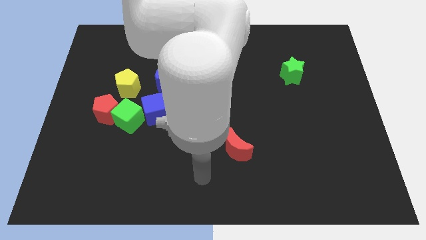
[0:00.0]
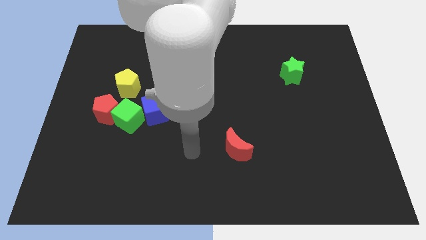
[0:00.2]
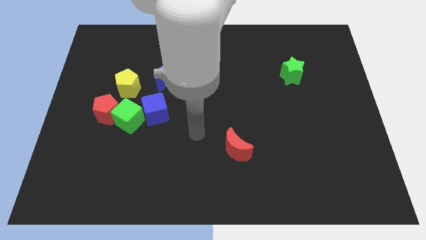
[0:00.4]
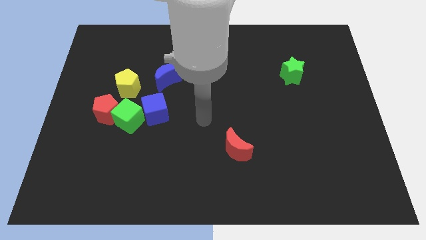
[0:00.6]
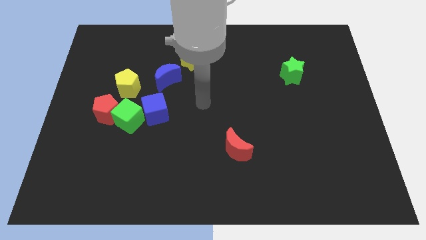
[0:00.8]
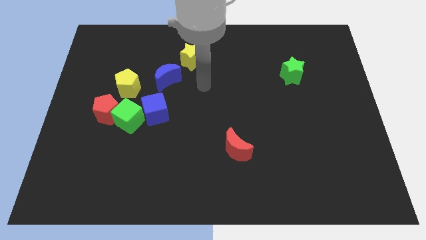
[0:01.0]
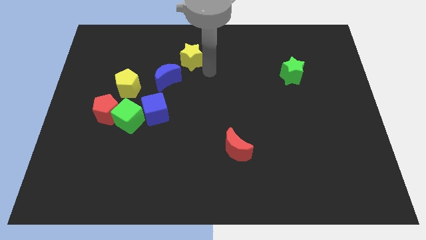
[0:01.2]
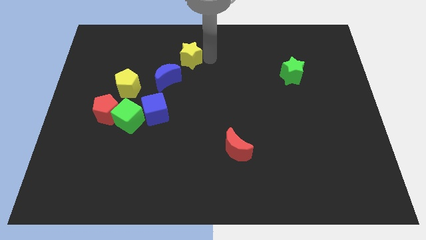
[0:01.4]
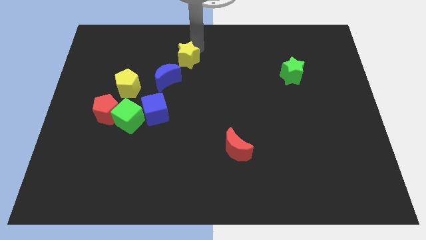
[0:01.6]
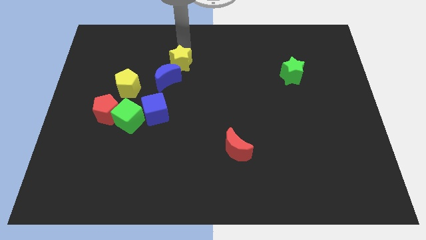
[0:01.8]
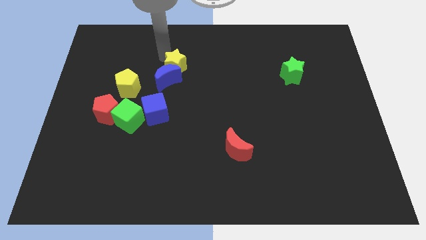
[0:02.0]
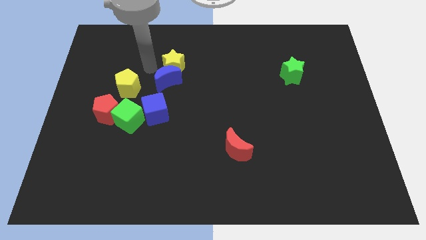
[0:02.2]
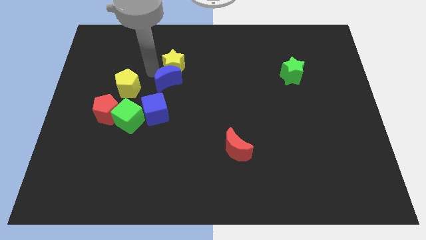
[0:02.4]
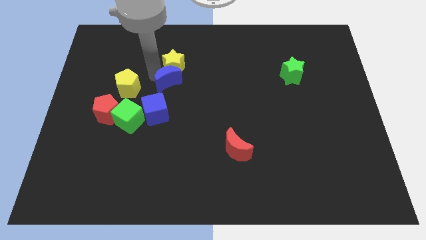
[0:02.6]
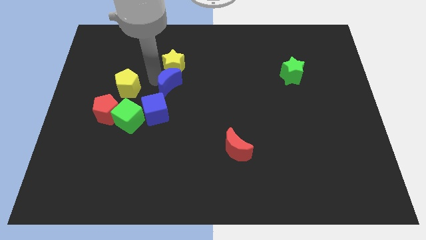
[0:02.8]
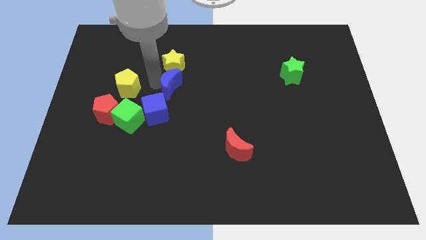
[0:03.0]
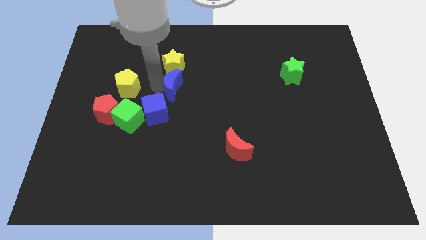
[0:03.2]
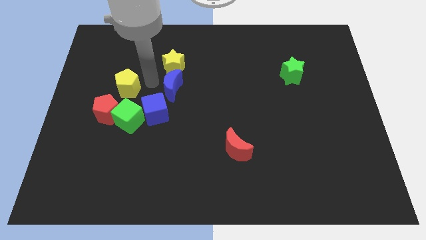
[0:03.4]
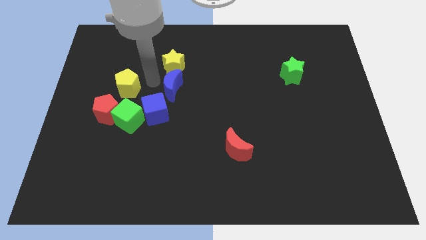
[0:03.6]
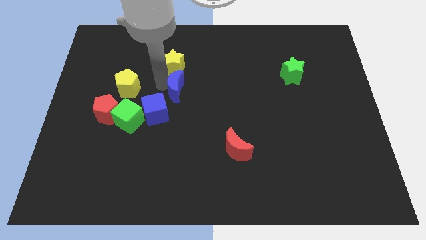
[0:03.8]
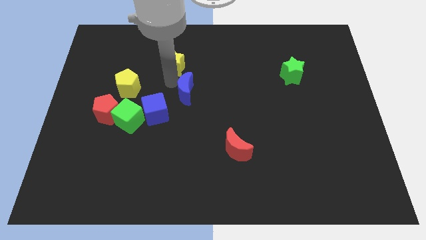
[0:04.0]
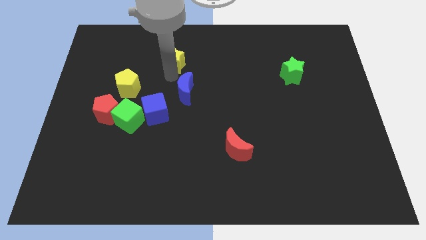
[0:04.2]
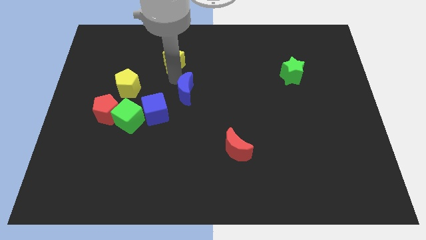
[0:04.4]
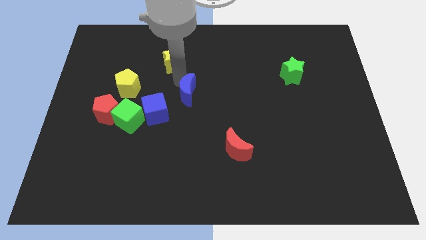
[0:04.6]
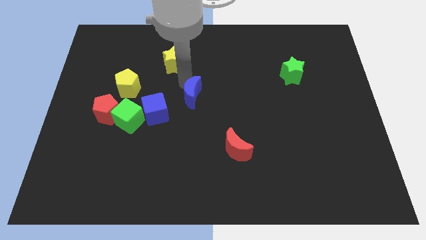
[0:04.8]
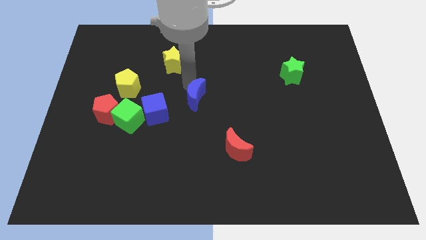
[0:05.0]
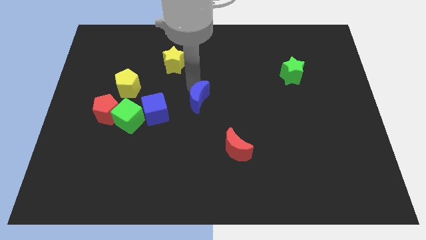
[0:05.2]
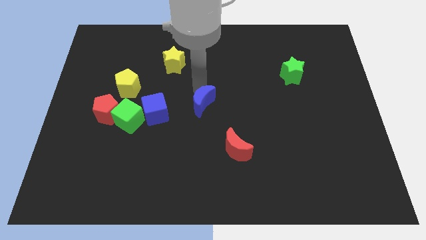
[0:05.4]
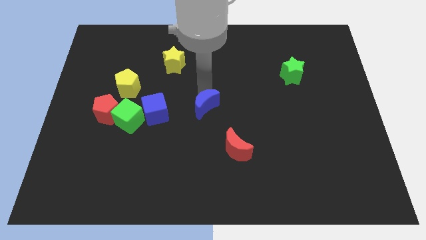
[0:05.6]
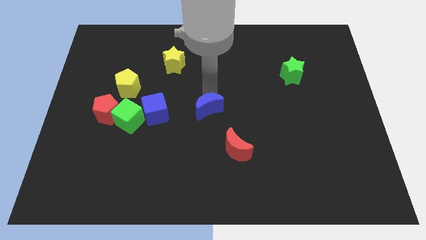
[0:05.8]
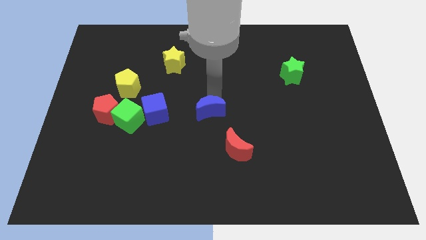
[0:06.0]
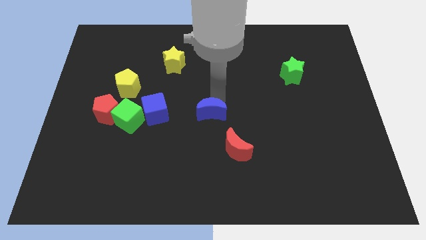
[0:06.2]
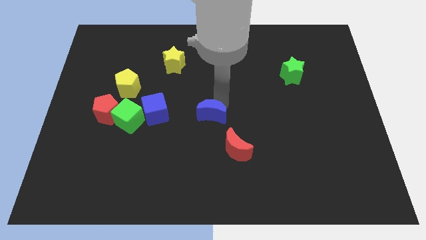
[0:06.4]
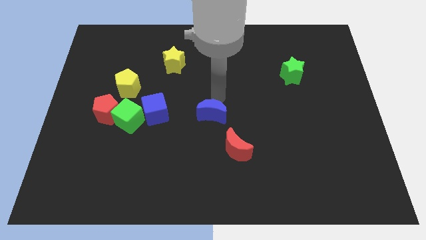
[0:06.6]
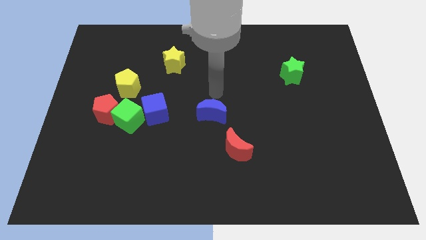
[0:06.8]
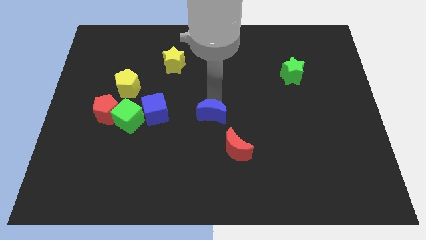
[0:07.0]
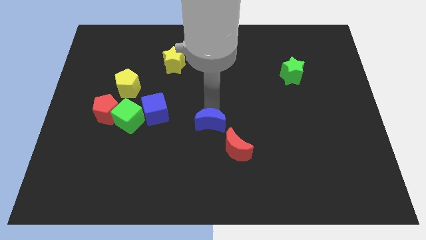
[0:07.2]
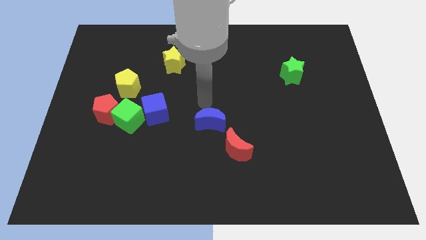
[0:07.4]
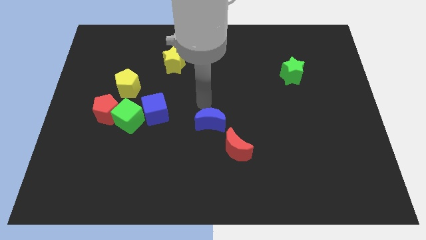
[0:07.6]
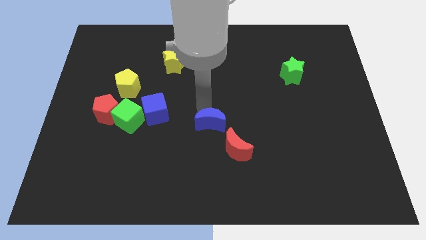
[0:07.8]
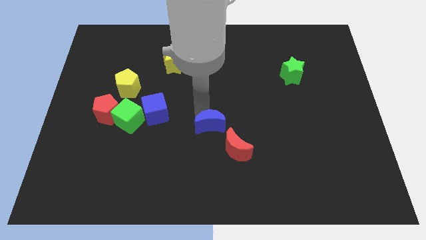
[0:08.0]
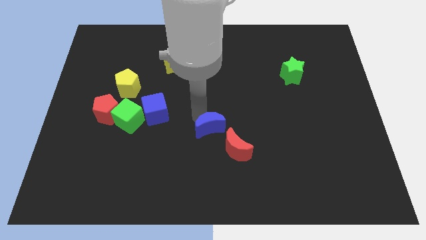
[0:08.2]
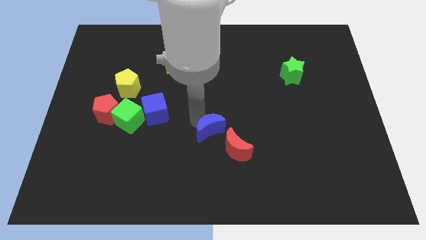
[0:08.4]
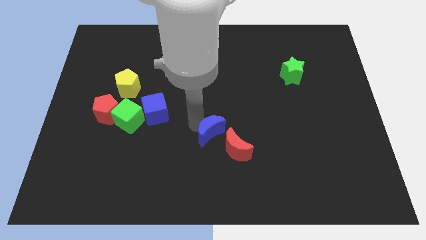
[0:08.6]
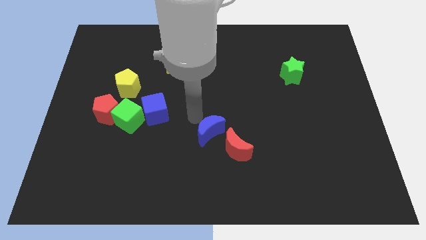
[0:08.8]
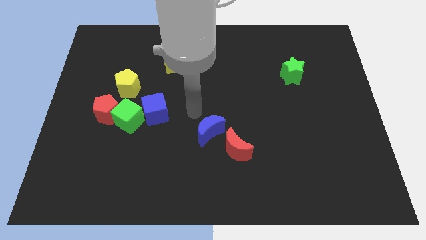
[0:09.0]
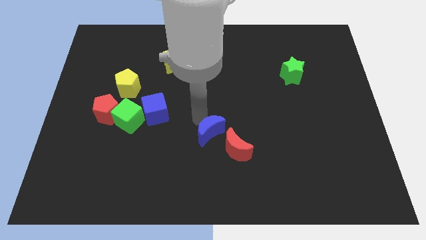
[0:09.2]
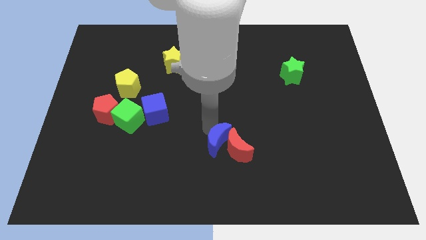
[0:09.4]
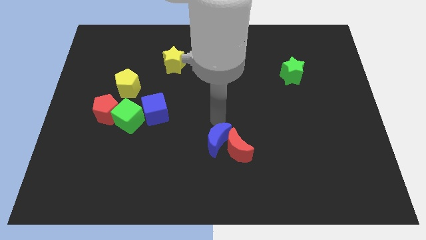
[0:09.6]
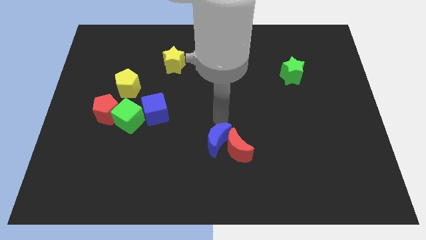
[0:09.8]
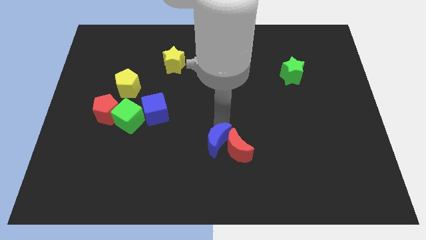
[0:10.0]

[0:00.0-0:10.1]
move the blue moon to the bottom left of the red moon

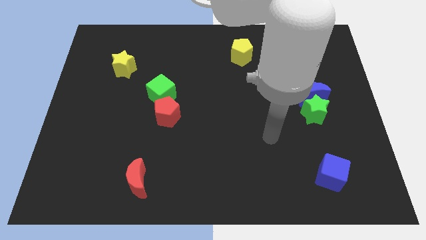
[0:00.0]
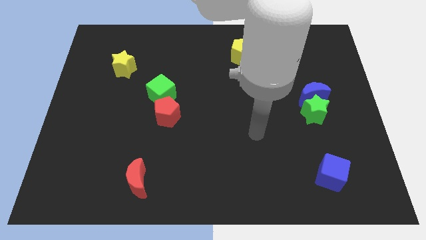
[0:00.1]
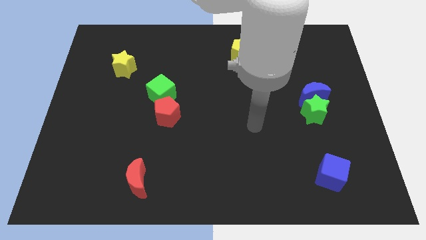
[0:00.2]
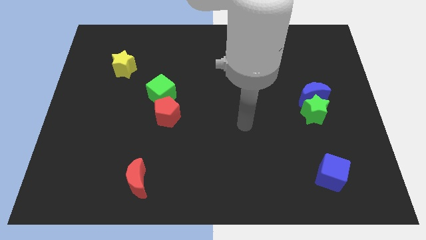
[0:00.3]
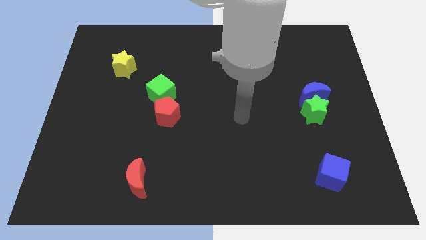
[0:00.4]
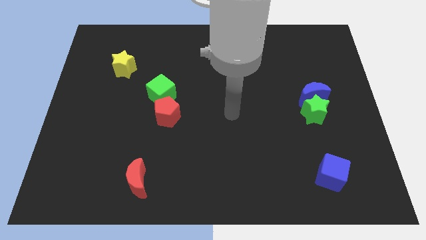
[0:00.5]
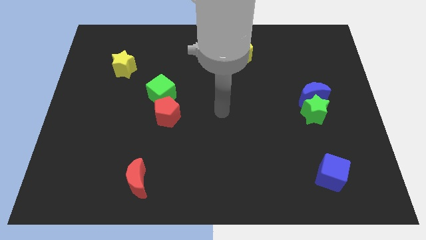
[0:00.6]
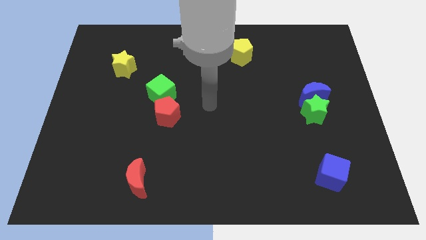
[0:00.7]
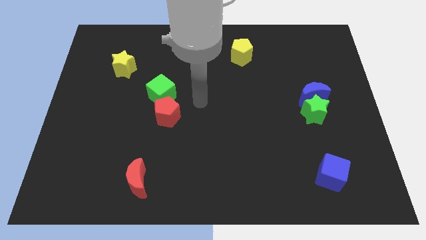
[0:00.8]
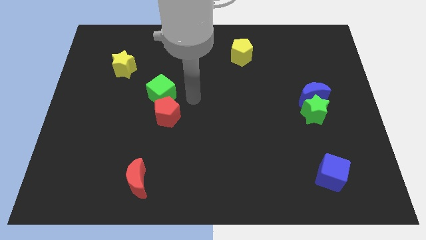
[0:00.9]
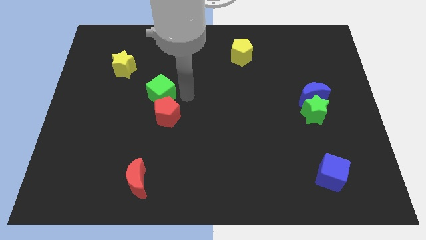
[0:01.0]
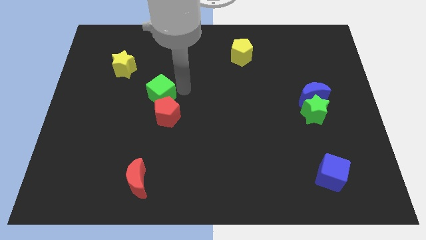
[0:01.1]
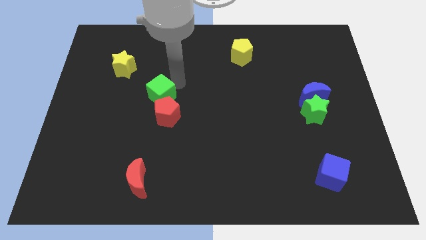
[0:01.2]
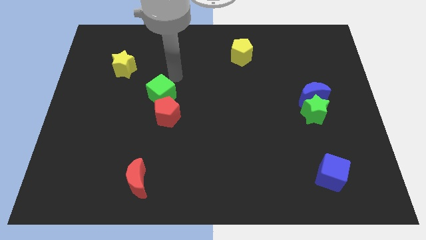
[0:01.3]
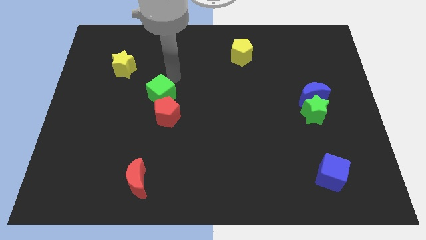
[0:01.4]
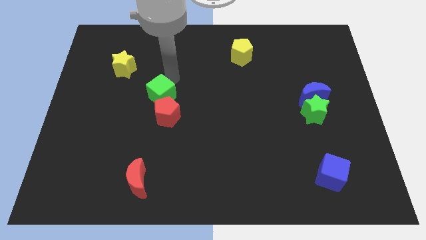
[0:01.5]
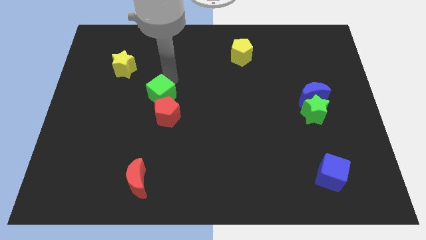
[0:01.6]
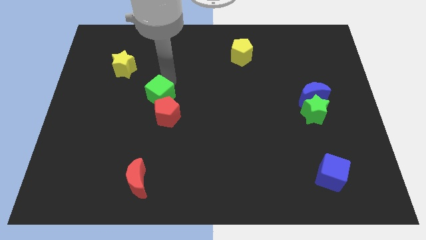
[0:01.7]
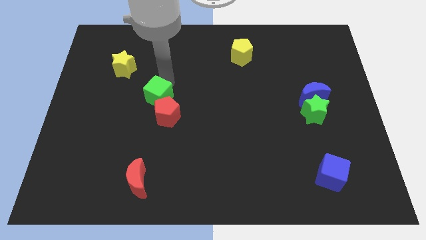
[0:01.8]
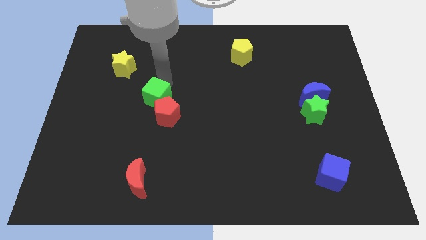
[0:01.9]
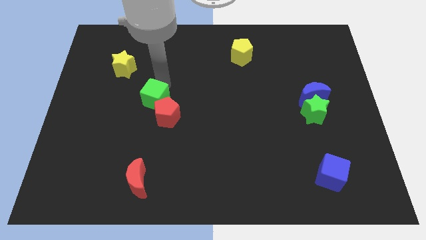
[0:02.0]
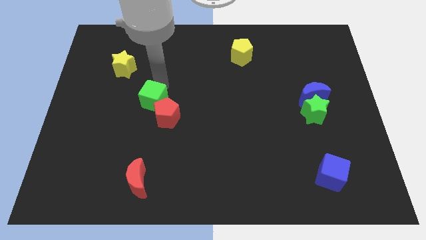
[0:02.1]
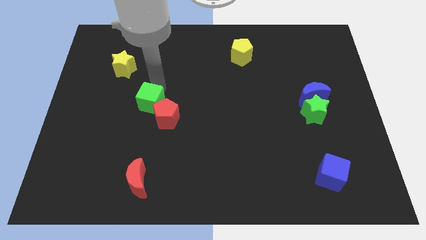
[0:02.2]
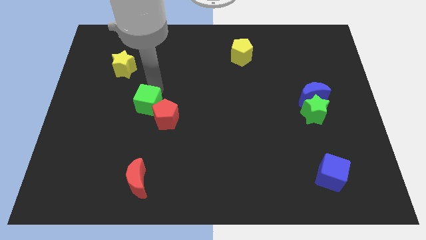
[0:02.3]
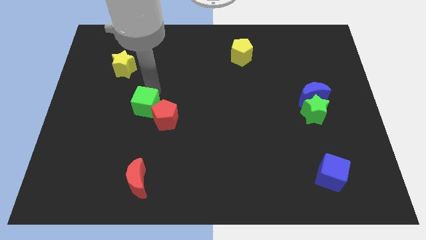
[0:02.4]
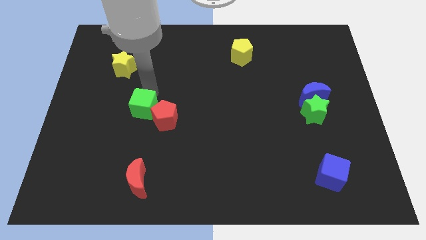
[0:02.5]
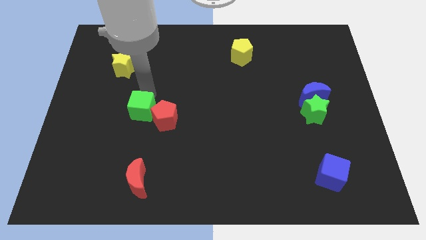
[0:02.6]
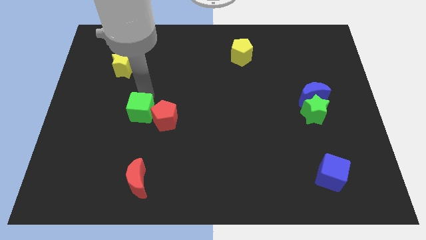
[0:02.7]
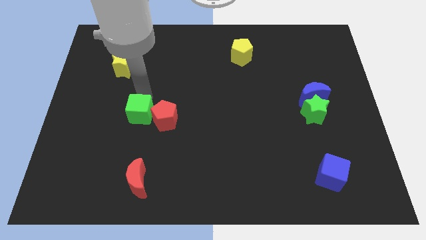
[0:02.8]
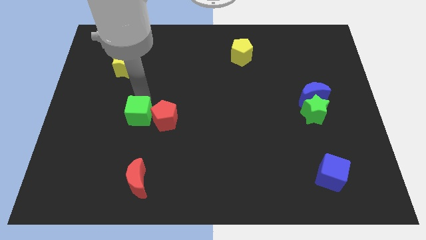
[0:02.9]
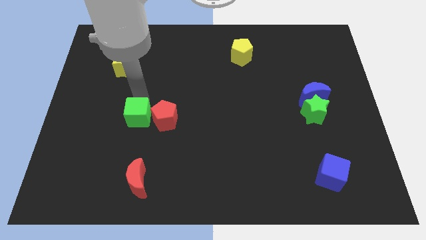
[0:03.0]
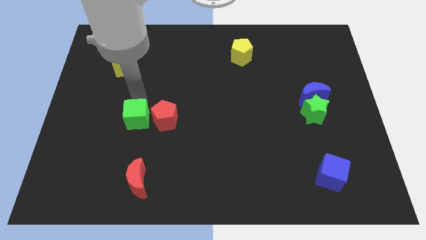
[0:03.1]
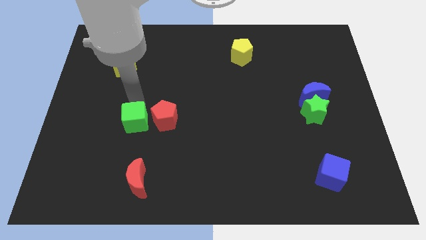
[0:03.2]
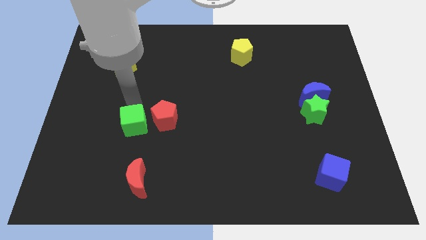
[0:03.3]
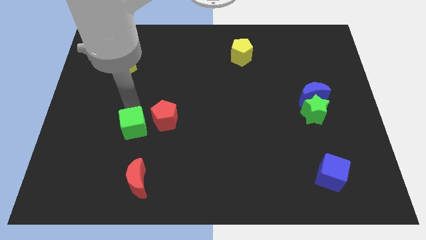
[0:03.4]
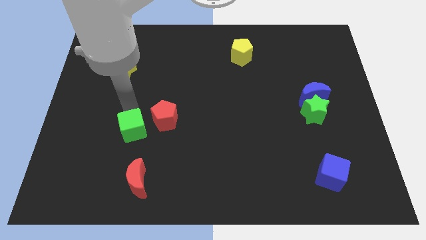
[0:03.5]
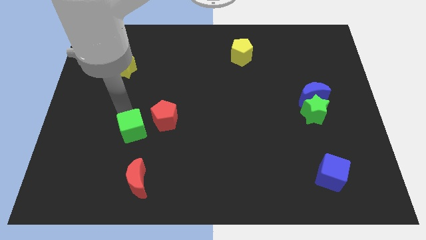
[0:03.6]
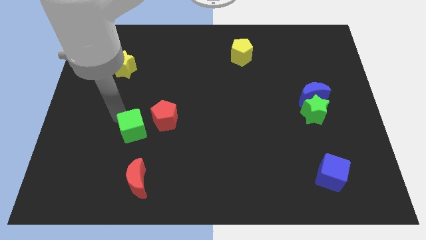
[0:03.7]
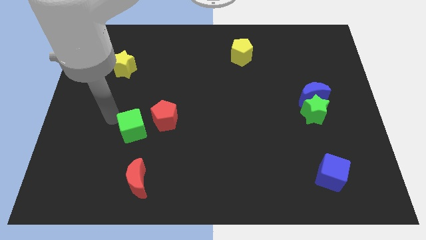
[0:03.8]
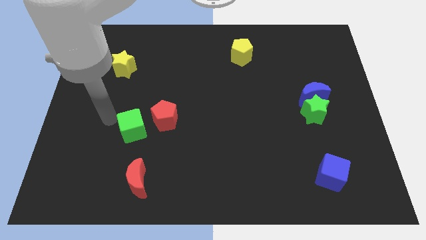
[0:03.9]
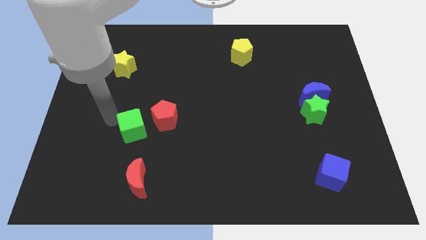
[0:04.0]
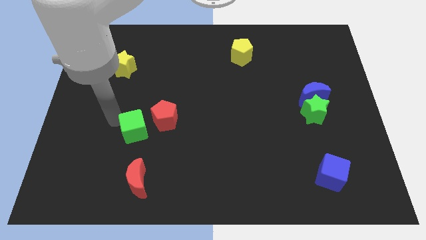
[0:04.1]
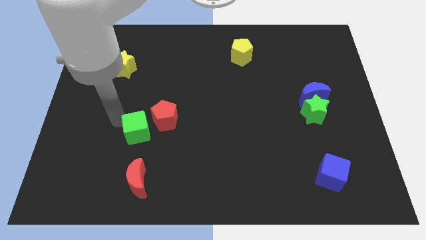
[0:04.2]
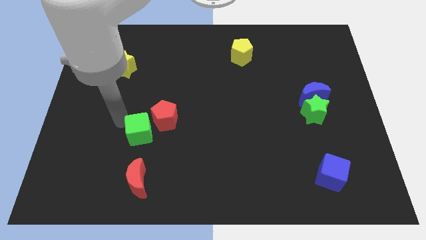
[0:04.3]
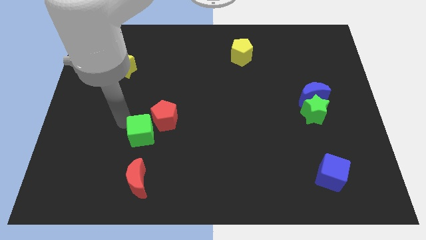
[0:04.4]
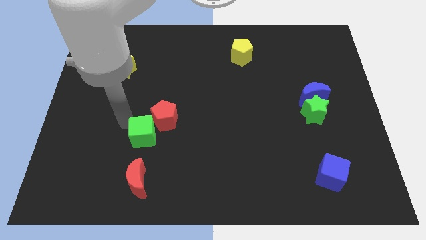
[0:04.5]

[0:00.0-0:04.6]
move the green cube to the bottom of the red pentagon
